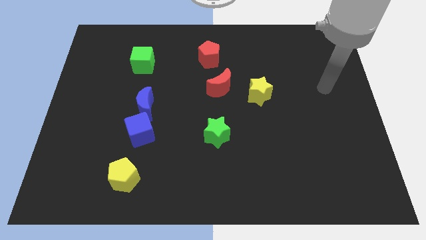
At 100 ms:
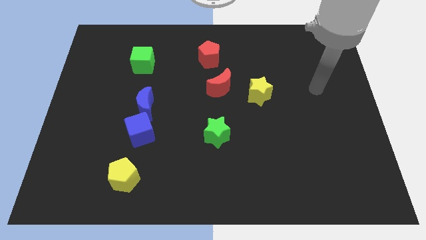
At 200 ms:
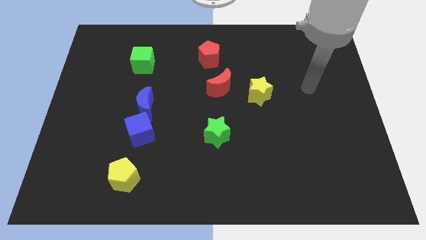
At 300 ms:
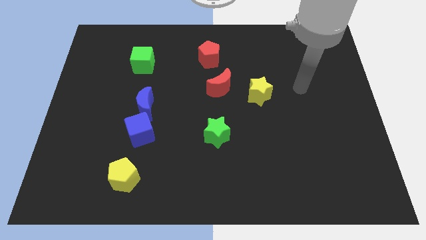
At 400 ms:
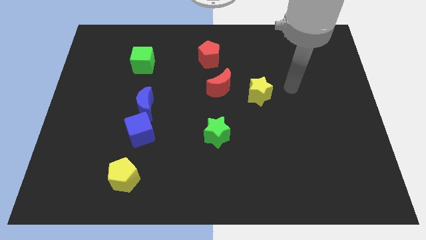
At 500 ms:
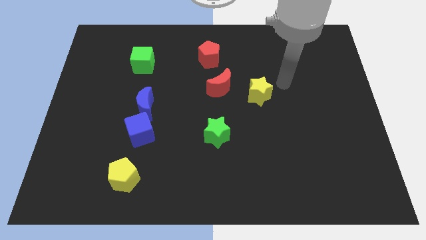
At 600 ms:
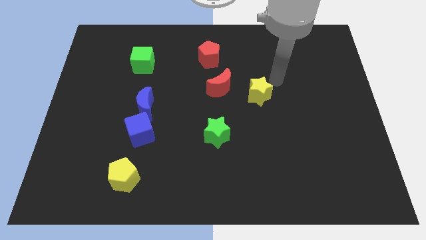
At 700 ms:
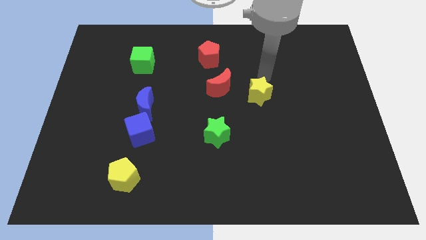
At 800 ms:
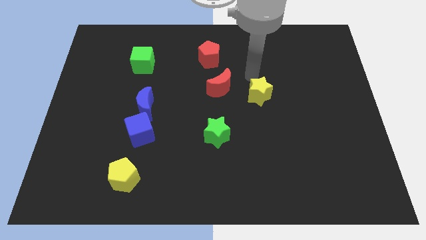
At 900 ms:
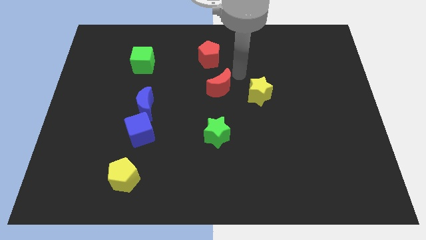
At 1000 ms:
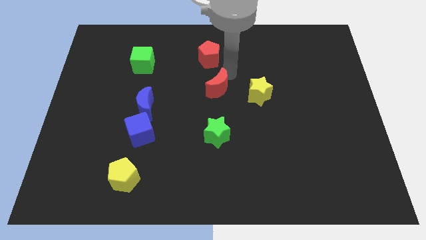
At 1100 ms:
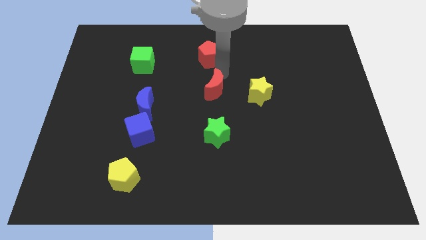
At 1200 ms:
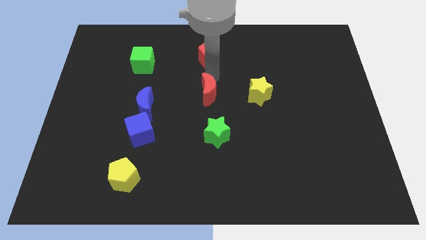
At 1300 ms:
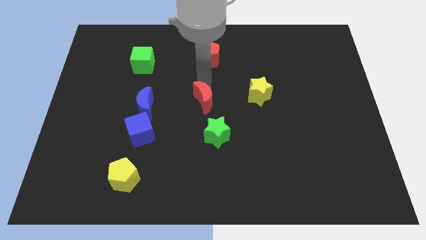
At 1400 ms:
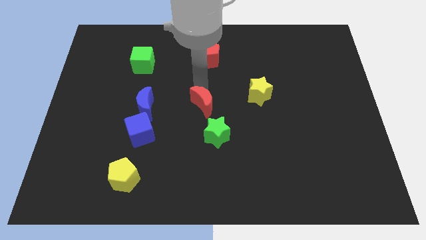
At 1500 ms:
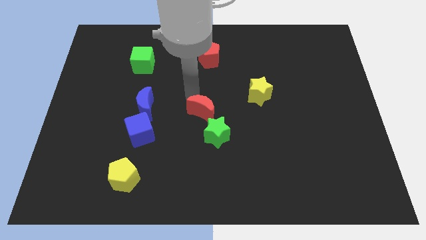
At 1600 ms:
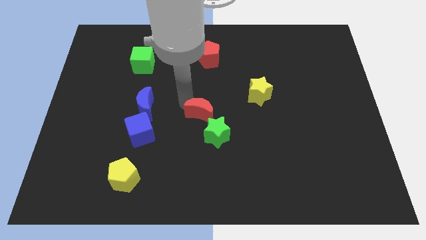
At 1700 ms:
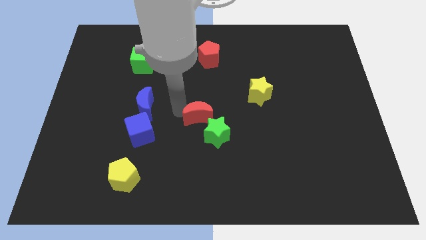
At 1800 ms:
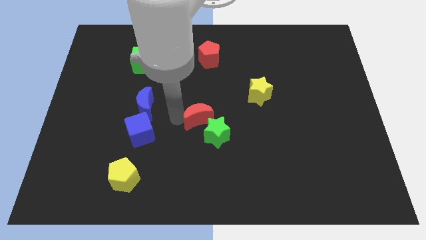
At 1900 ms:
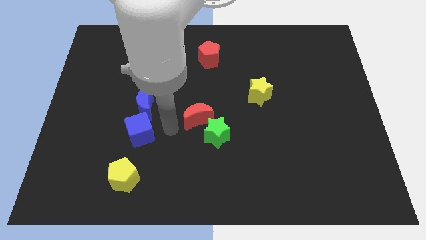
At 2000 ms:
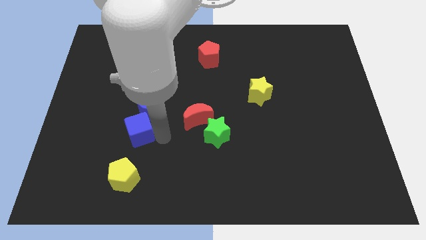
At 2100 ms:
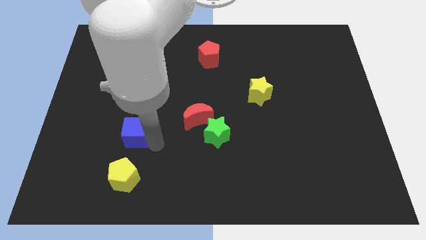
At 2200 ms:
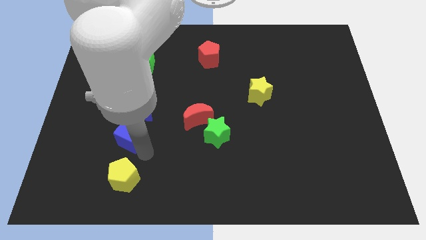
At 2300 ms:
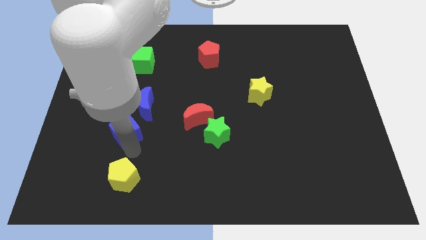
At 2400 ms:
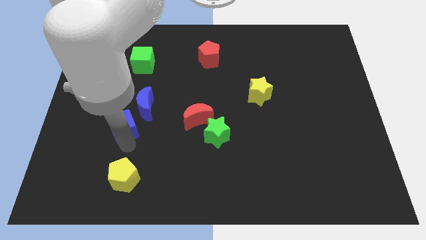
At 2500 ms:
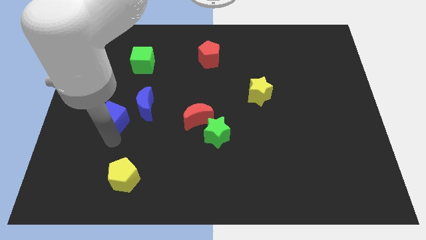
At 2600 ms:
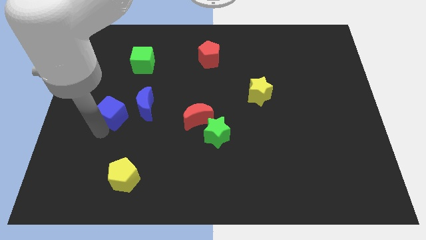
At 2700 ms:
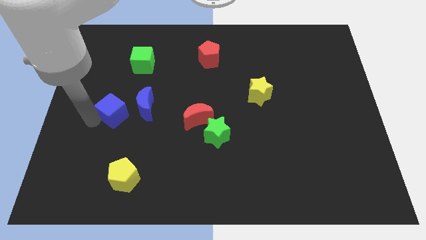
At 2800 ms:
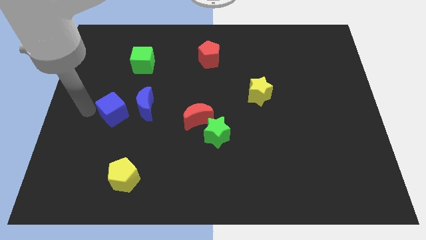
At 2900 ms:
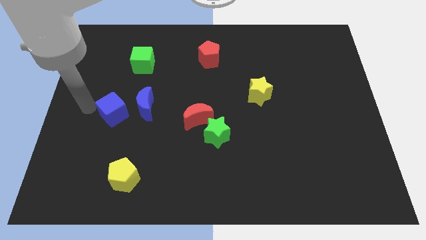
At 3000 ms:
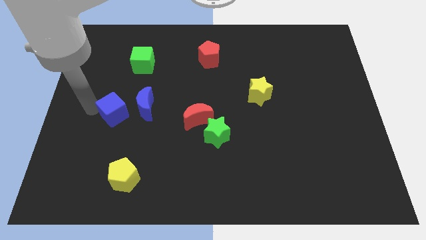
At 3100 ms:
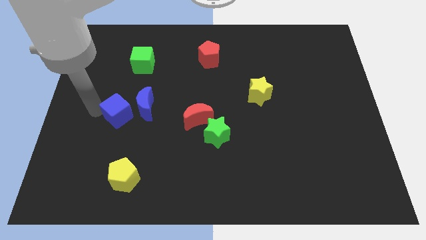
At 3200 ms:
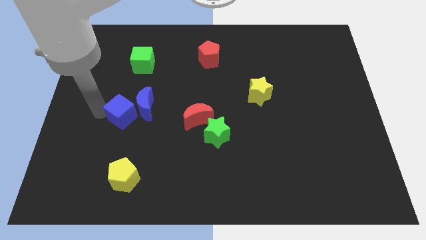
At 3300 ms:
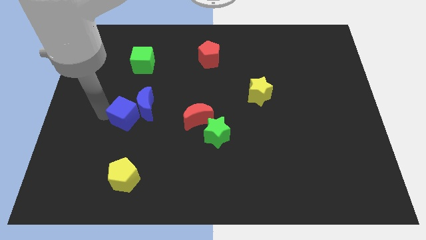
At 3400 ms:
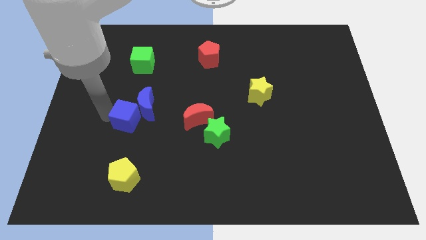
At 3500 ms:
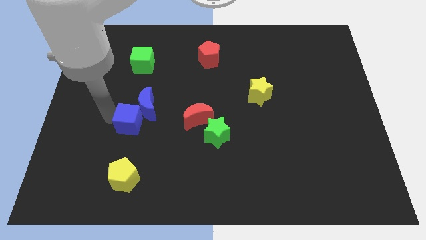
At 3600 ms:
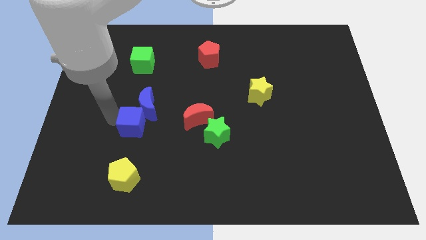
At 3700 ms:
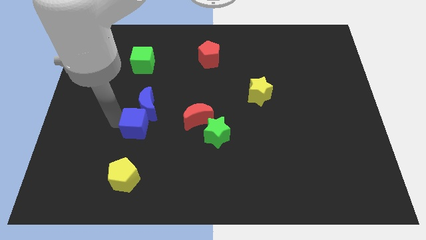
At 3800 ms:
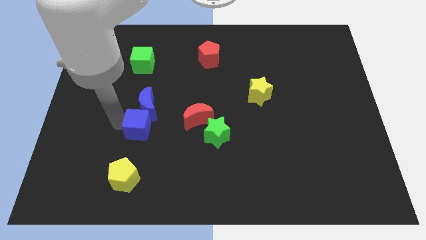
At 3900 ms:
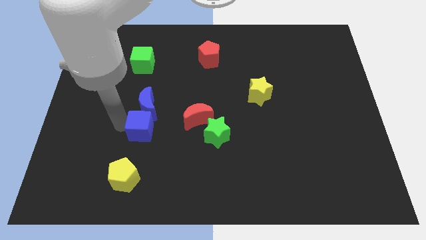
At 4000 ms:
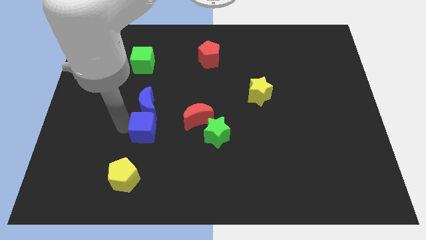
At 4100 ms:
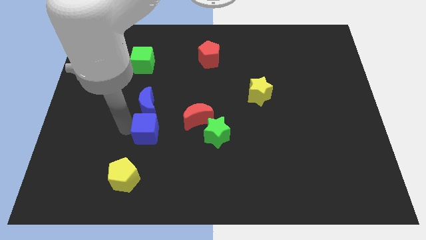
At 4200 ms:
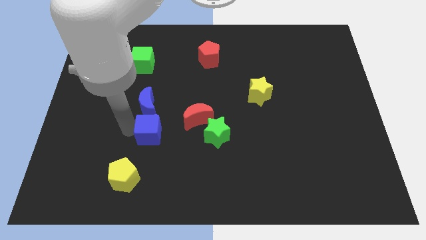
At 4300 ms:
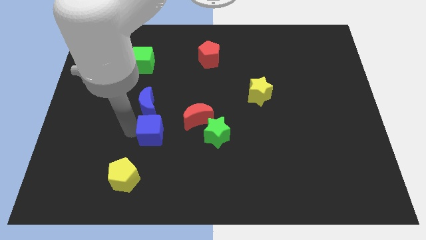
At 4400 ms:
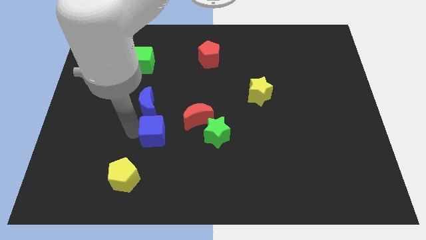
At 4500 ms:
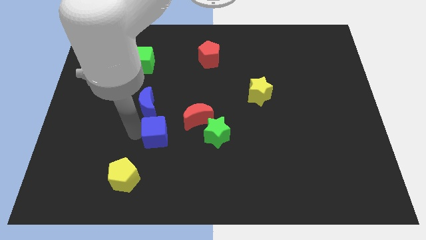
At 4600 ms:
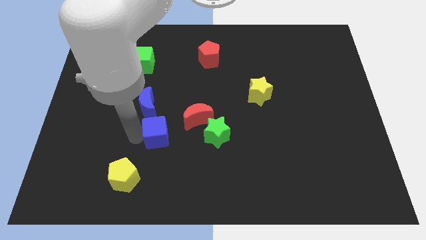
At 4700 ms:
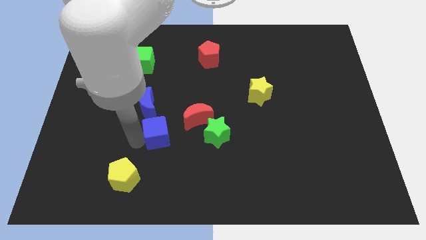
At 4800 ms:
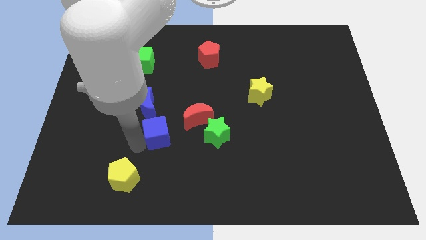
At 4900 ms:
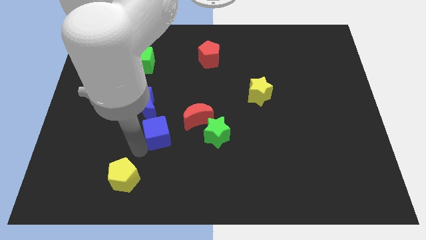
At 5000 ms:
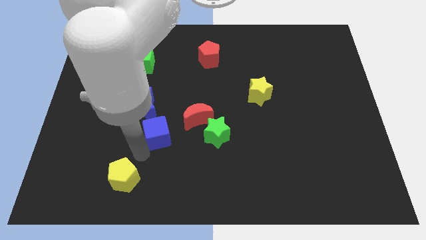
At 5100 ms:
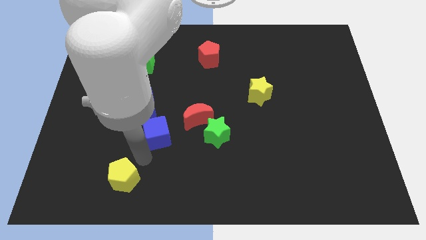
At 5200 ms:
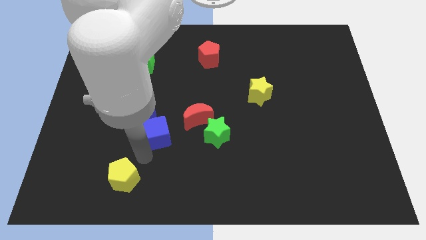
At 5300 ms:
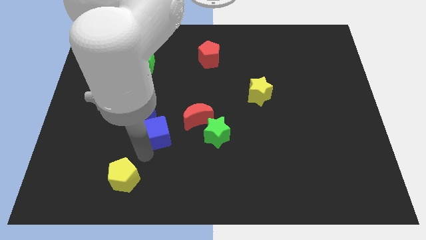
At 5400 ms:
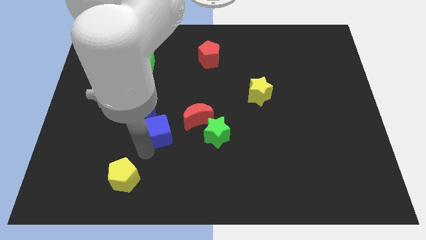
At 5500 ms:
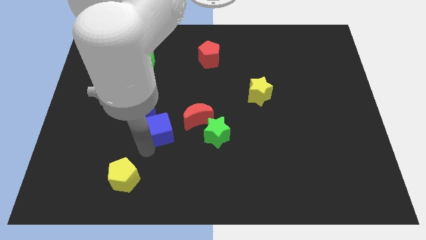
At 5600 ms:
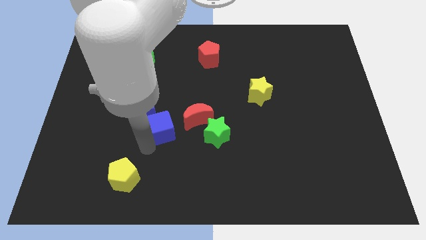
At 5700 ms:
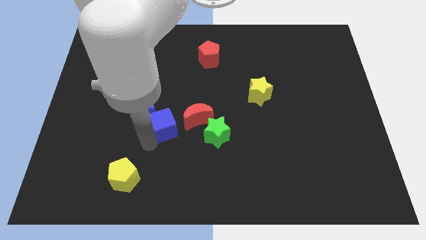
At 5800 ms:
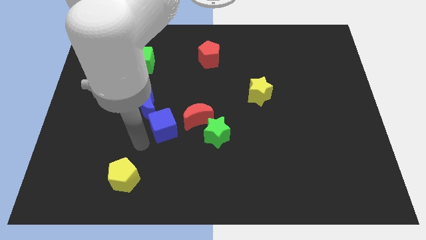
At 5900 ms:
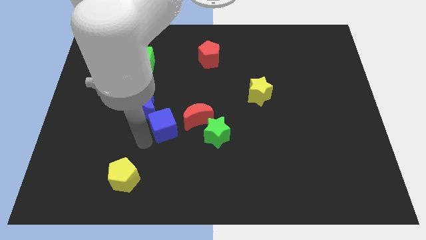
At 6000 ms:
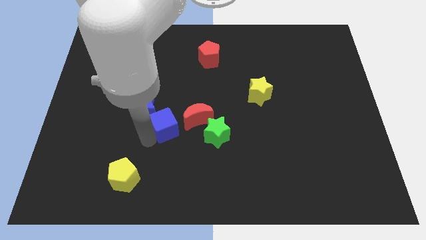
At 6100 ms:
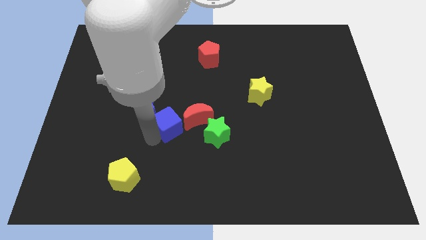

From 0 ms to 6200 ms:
put the blue cube to the middle
